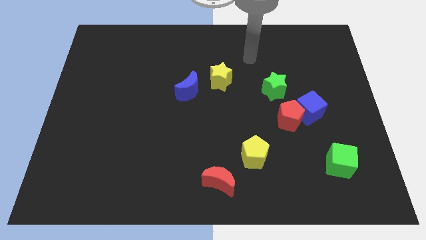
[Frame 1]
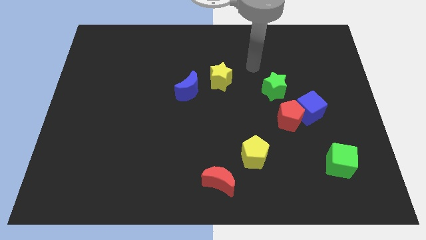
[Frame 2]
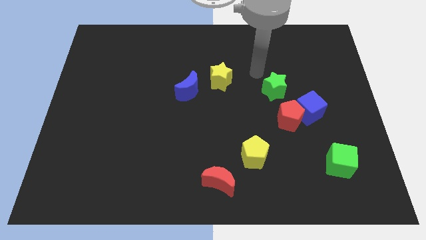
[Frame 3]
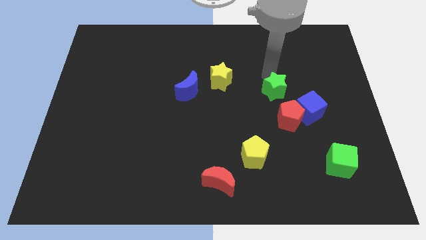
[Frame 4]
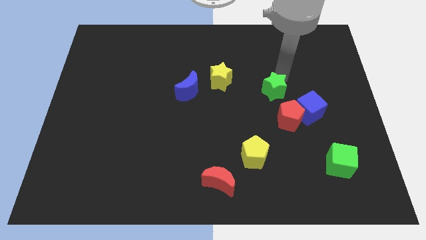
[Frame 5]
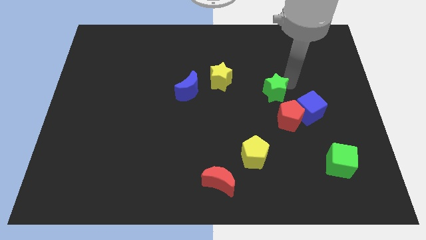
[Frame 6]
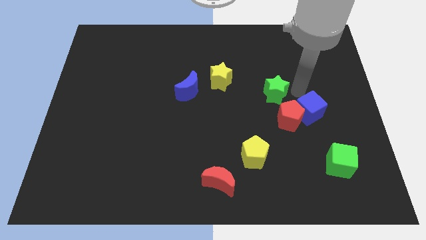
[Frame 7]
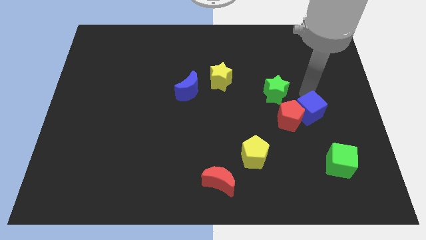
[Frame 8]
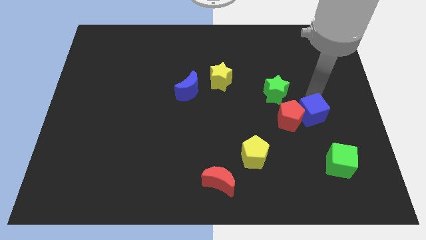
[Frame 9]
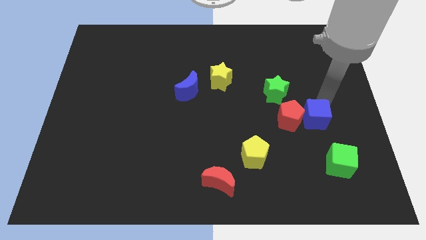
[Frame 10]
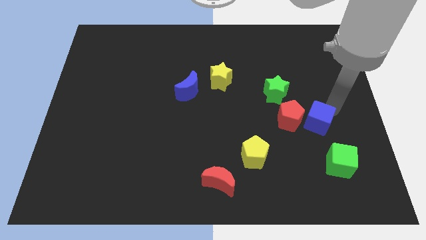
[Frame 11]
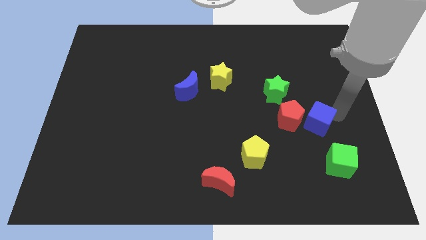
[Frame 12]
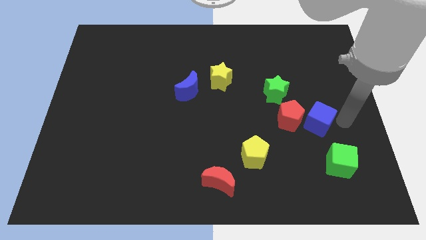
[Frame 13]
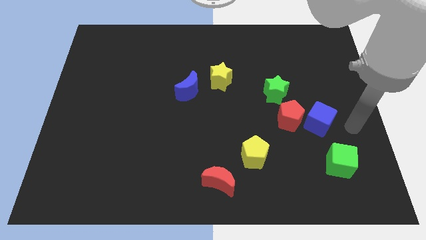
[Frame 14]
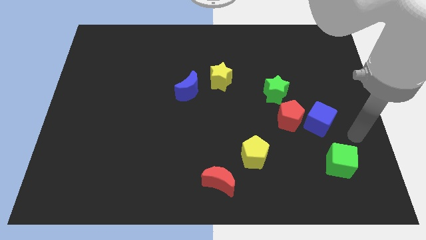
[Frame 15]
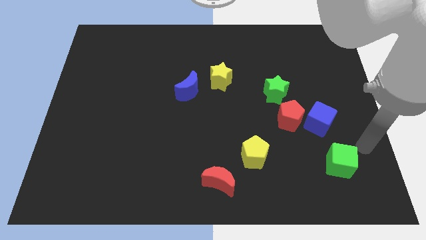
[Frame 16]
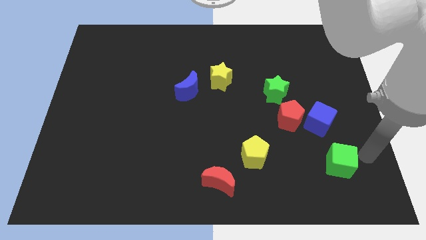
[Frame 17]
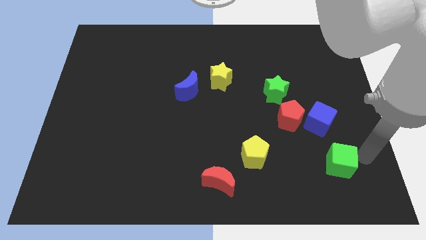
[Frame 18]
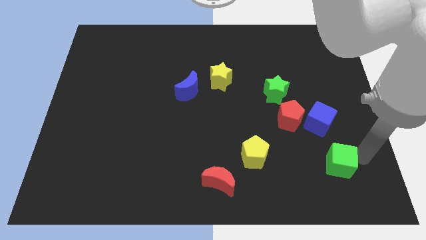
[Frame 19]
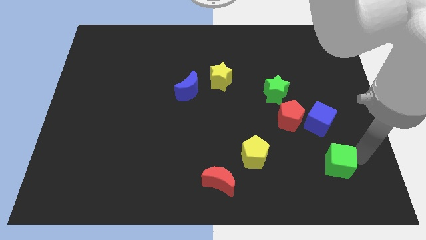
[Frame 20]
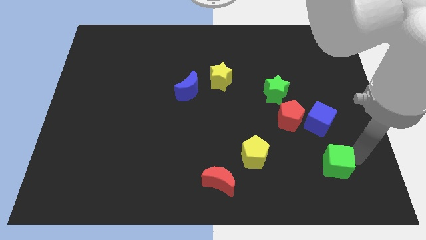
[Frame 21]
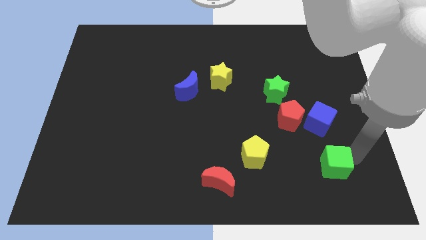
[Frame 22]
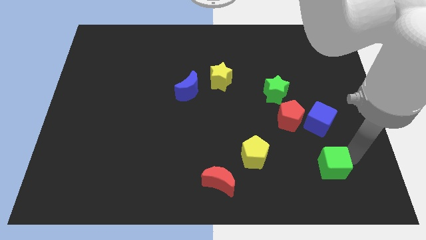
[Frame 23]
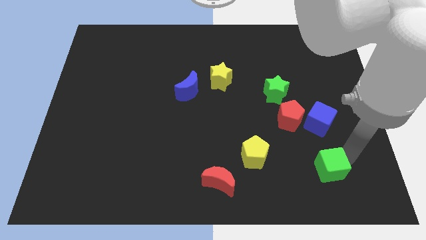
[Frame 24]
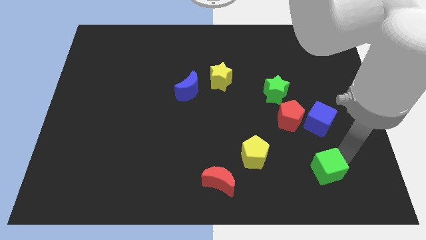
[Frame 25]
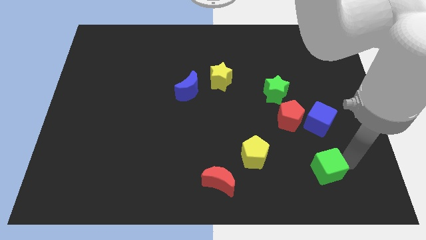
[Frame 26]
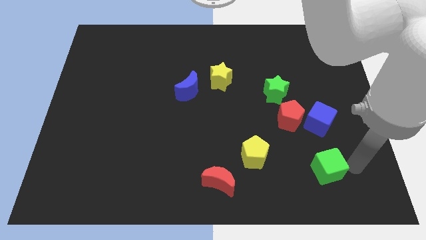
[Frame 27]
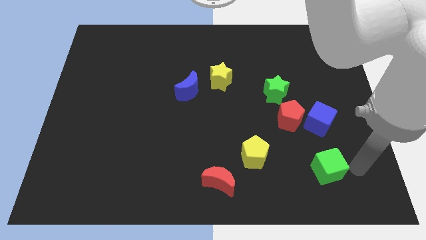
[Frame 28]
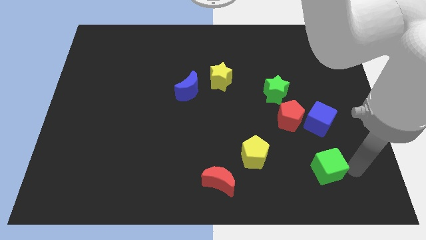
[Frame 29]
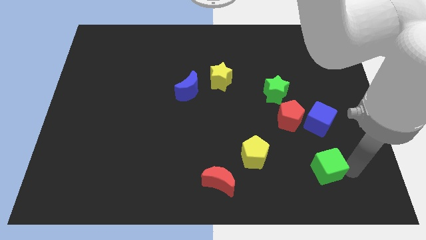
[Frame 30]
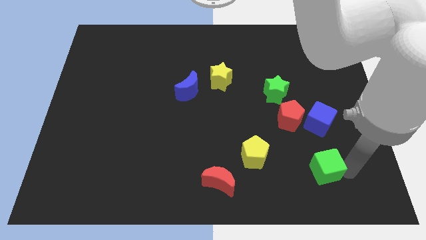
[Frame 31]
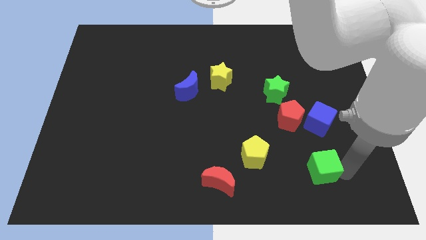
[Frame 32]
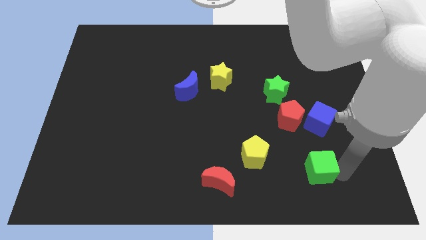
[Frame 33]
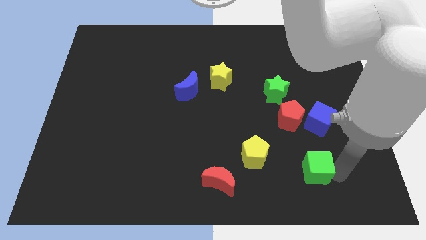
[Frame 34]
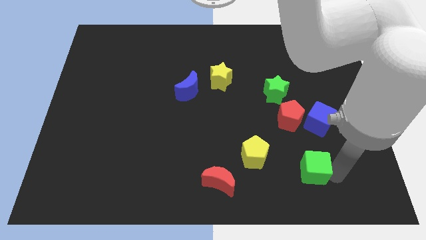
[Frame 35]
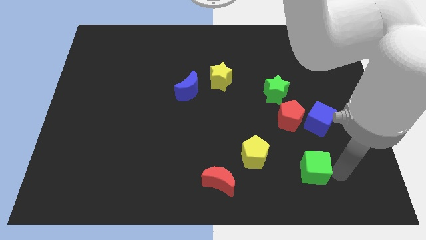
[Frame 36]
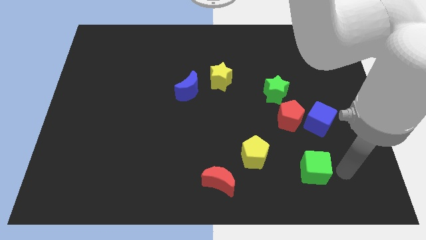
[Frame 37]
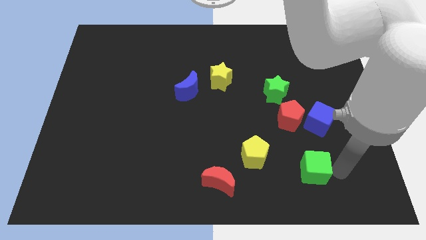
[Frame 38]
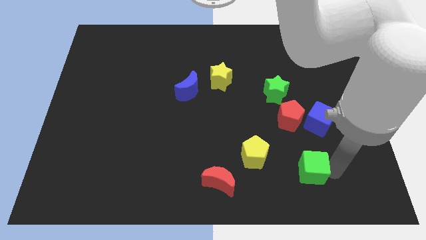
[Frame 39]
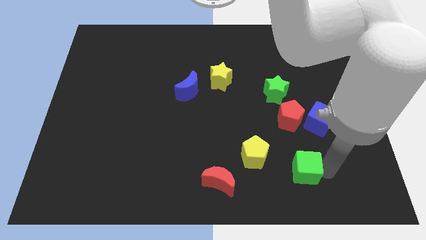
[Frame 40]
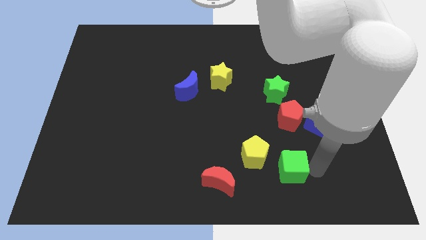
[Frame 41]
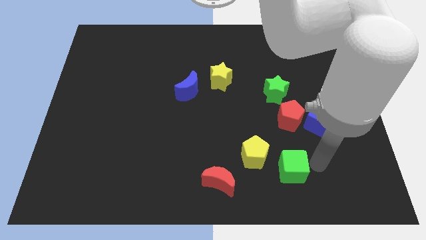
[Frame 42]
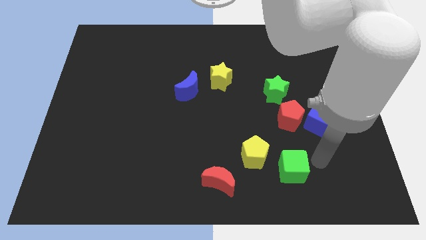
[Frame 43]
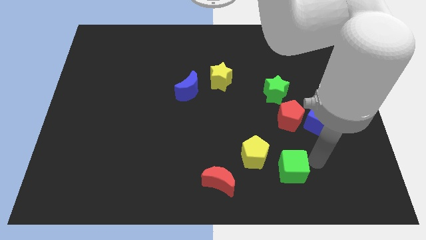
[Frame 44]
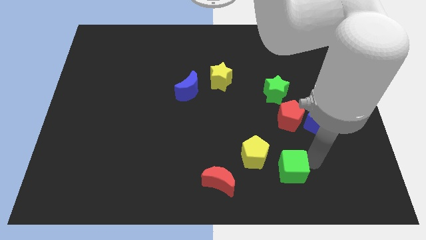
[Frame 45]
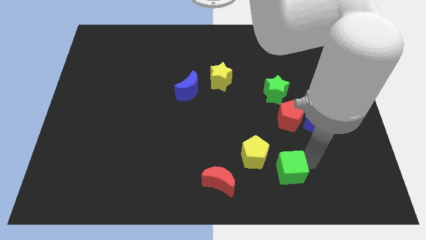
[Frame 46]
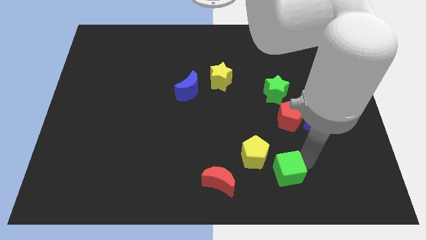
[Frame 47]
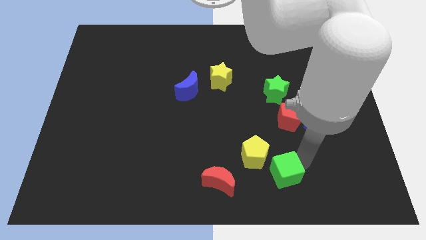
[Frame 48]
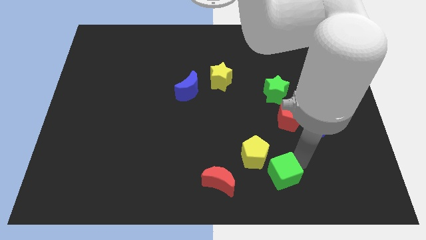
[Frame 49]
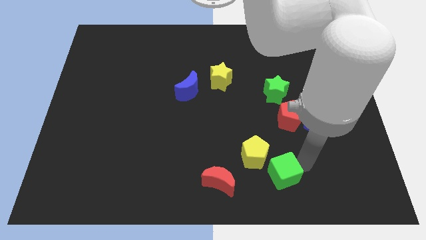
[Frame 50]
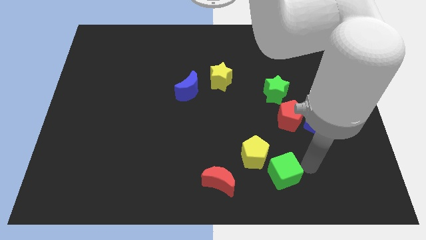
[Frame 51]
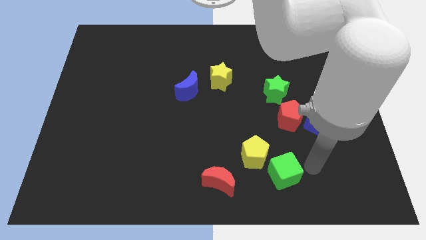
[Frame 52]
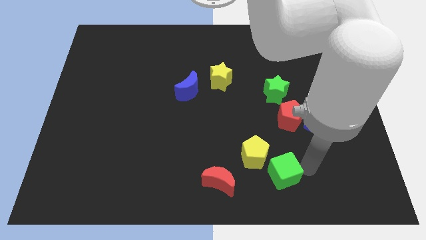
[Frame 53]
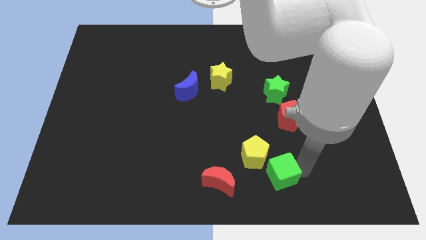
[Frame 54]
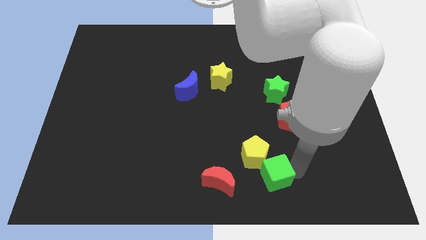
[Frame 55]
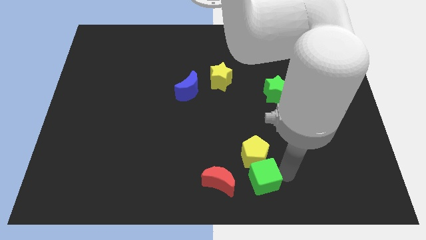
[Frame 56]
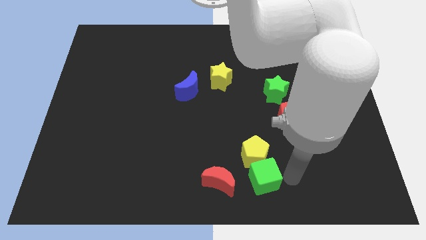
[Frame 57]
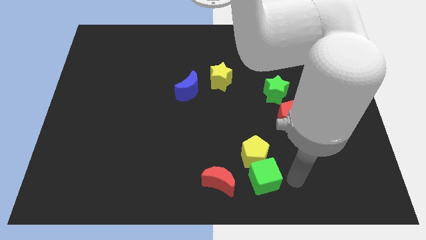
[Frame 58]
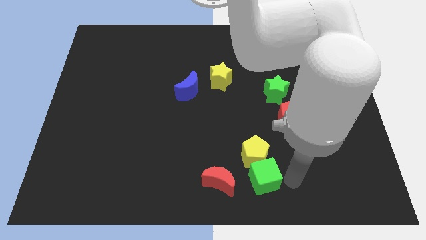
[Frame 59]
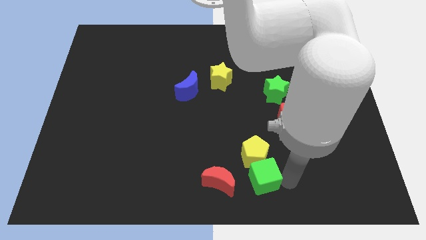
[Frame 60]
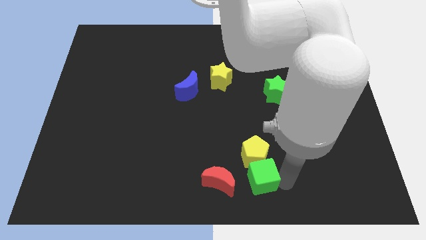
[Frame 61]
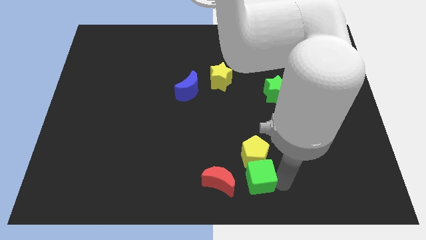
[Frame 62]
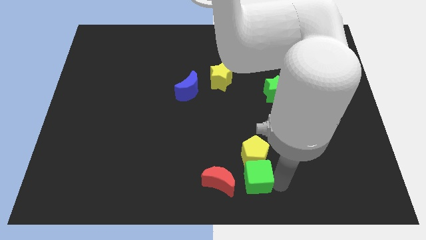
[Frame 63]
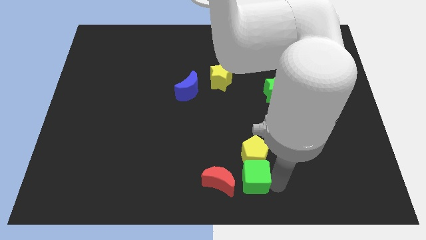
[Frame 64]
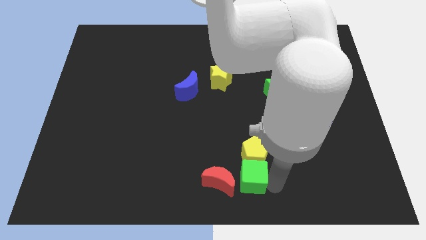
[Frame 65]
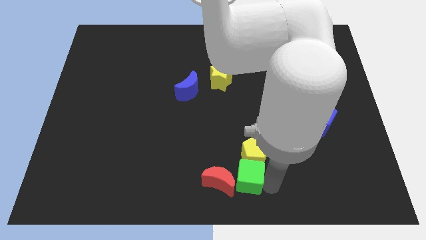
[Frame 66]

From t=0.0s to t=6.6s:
put the green cube close to the red moon

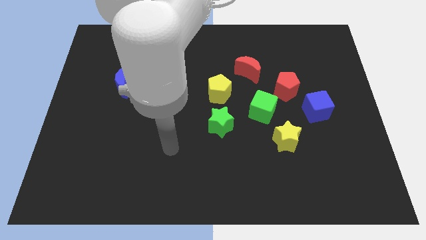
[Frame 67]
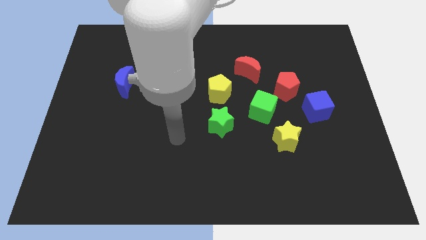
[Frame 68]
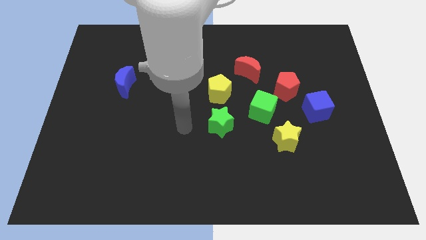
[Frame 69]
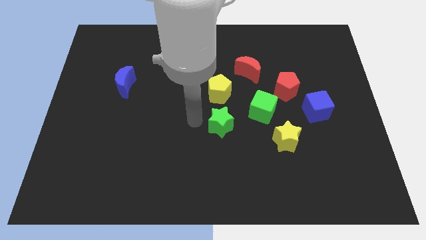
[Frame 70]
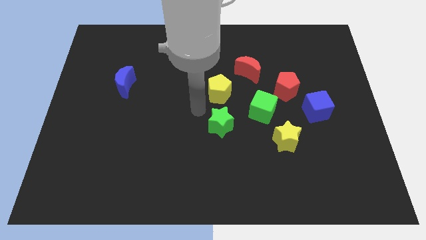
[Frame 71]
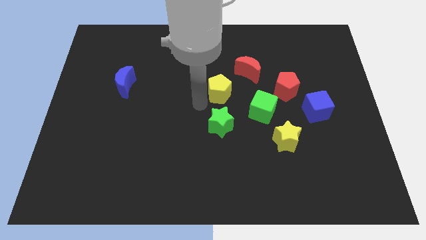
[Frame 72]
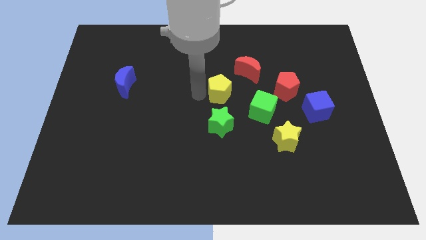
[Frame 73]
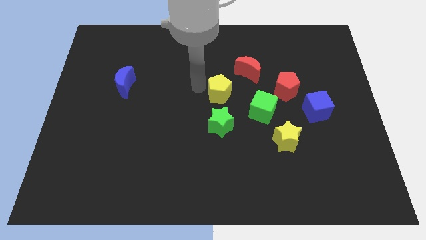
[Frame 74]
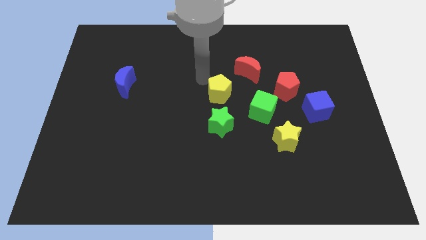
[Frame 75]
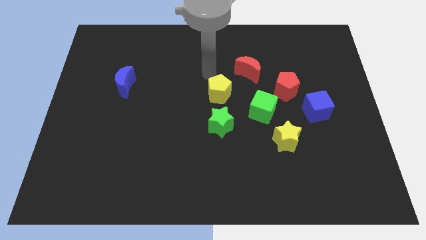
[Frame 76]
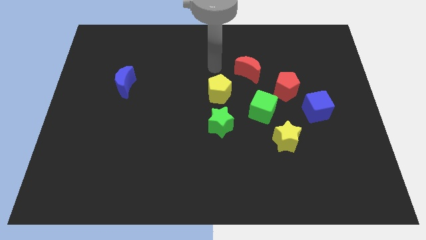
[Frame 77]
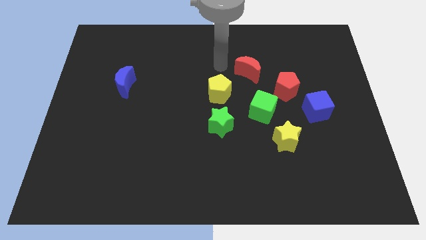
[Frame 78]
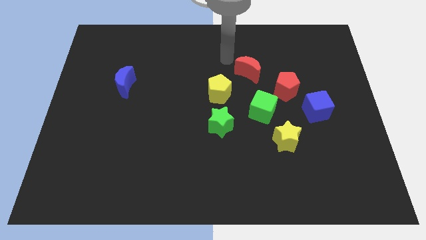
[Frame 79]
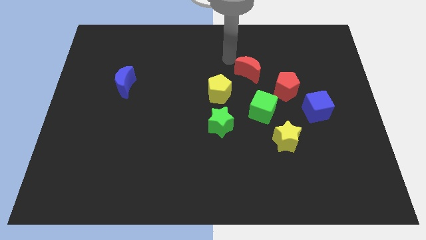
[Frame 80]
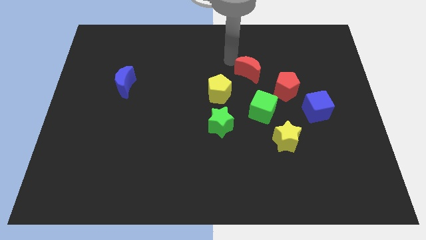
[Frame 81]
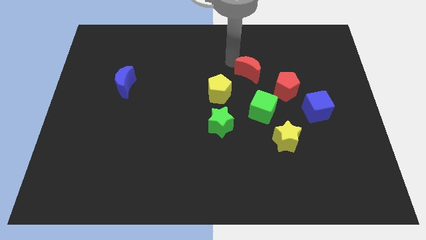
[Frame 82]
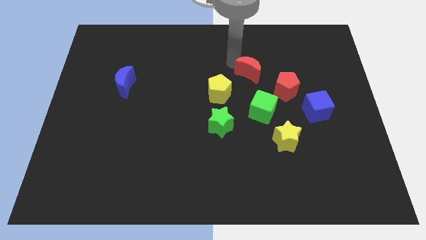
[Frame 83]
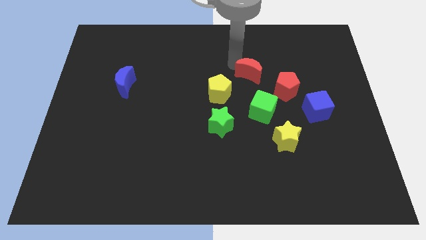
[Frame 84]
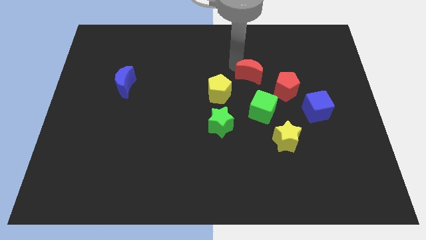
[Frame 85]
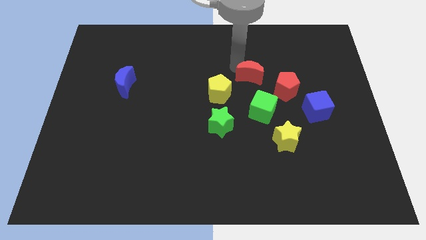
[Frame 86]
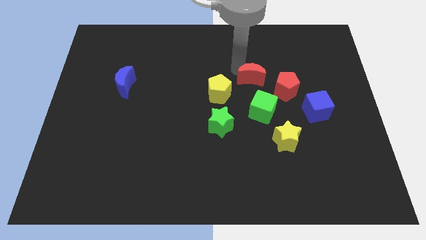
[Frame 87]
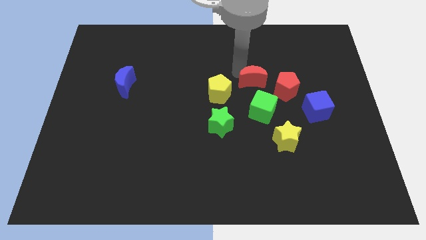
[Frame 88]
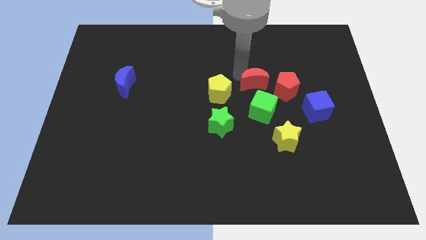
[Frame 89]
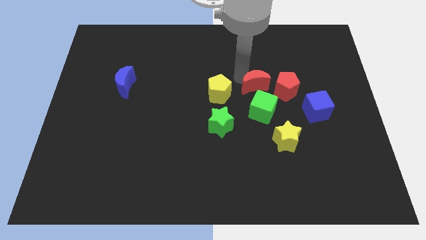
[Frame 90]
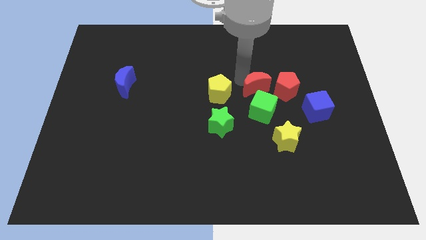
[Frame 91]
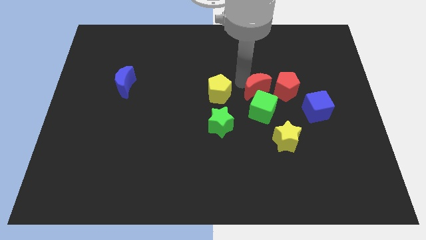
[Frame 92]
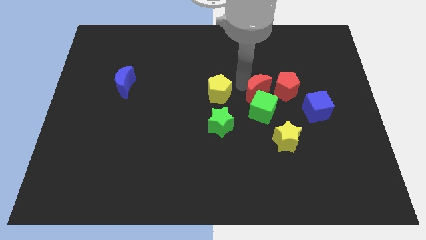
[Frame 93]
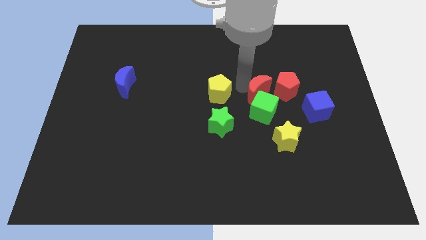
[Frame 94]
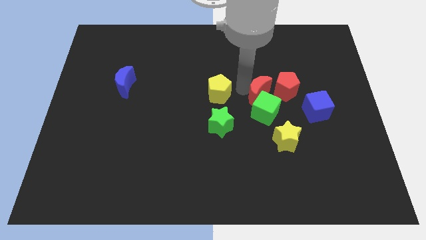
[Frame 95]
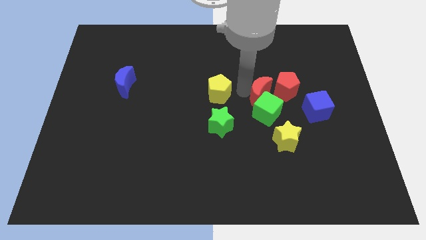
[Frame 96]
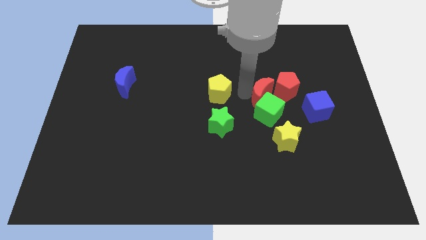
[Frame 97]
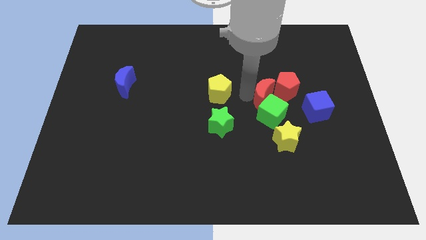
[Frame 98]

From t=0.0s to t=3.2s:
move the red moon close to the red pentagon
